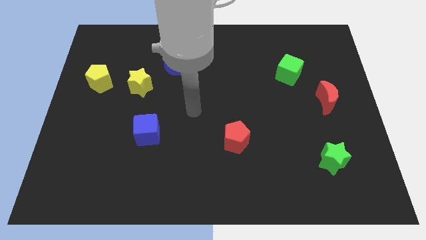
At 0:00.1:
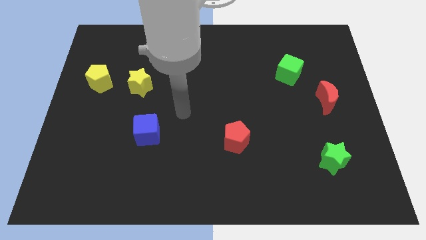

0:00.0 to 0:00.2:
move the yellow star away from the yellow pentagon

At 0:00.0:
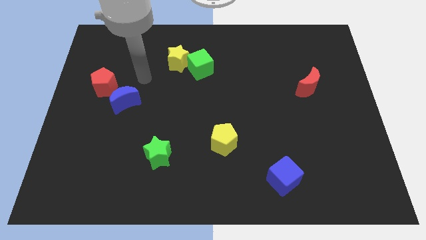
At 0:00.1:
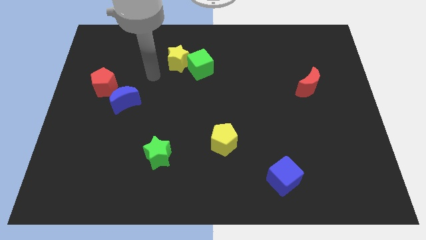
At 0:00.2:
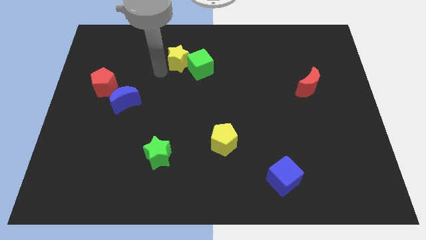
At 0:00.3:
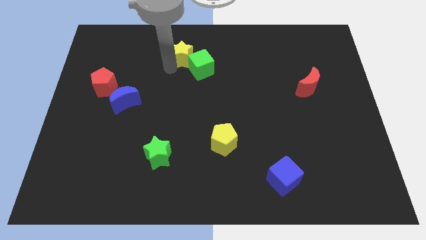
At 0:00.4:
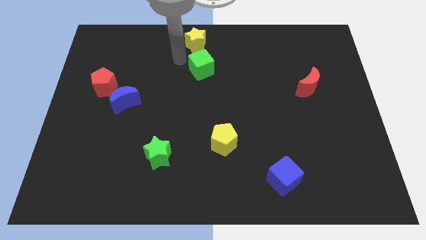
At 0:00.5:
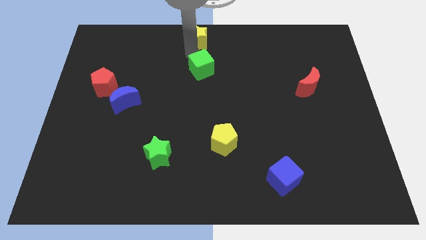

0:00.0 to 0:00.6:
move the green cube away from the yellow star

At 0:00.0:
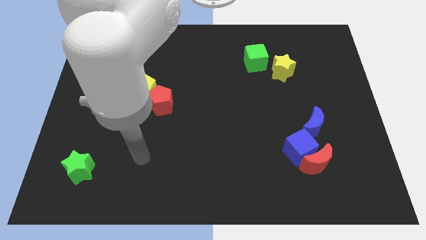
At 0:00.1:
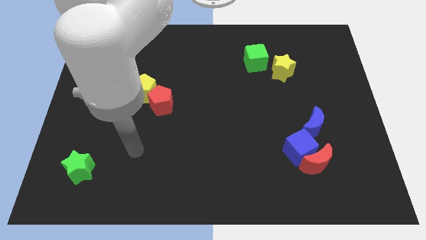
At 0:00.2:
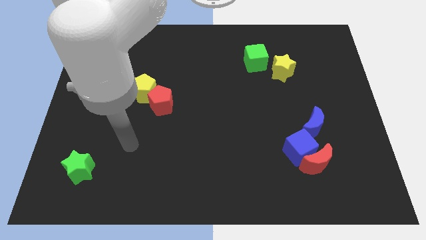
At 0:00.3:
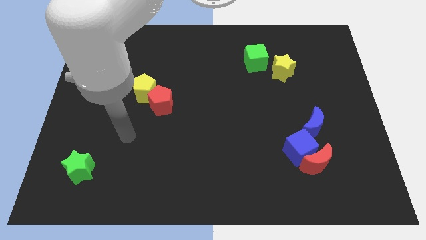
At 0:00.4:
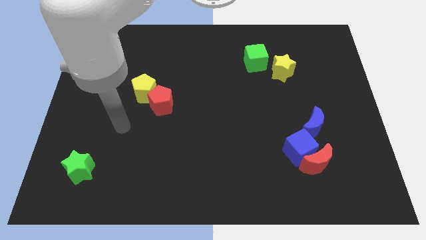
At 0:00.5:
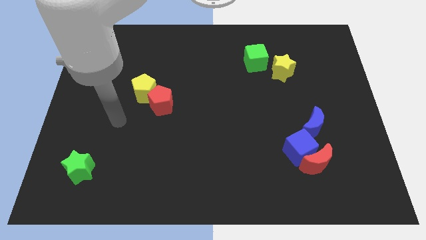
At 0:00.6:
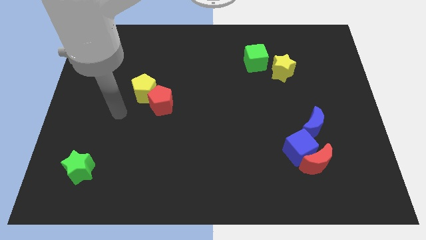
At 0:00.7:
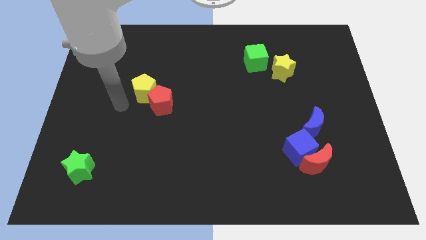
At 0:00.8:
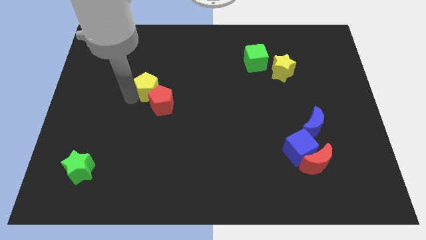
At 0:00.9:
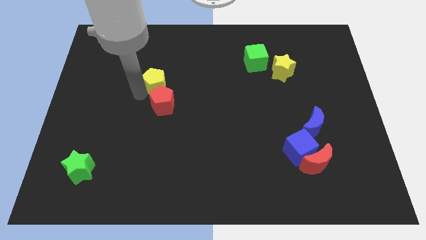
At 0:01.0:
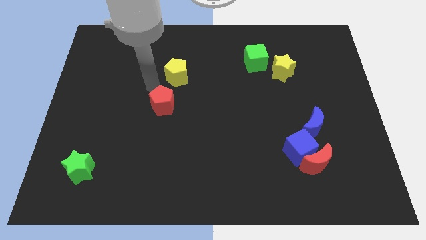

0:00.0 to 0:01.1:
pull the red pentagon apart from the yellow pentagon

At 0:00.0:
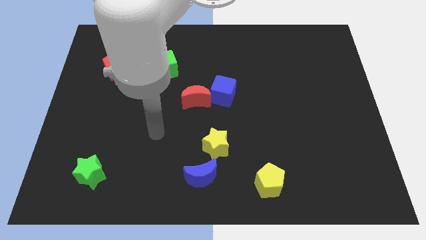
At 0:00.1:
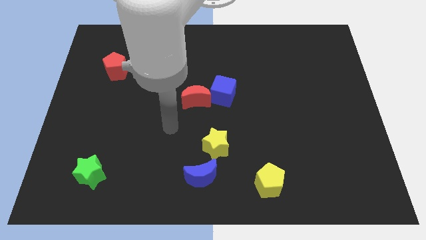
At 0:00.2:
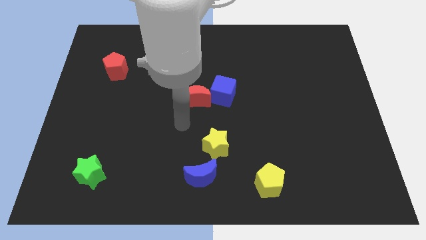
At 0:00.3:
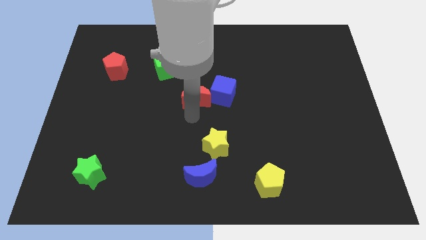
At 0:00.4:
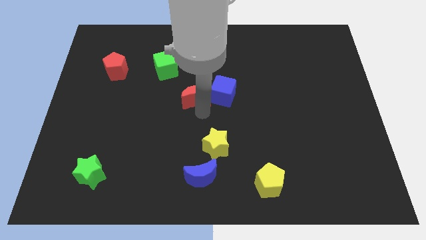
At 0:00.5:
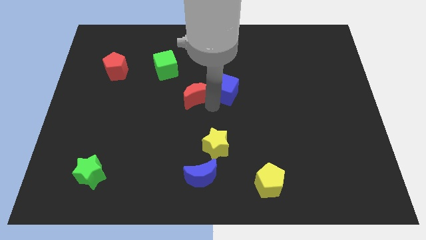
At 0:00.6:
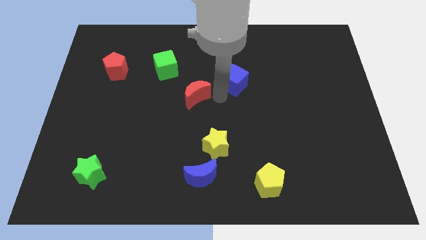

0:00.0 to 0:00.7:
pull the red moon apart from the blue cube

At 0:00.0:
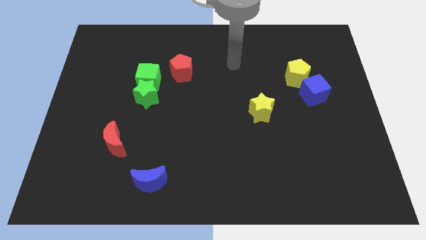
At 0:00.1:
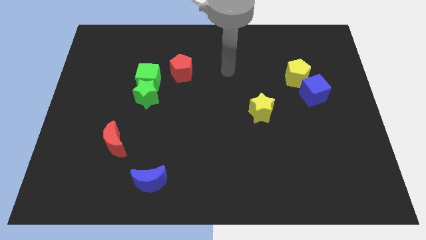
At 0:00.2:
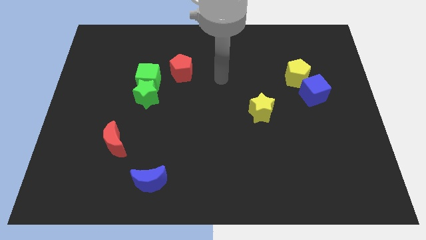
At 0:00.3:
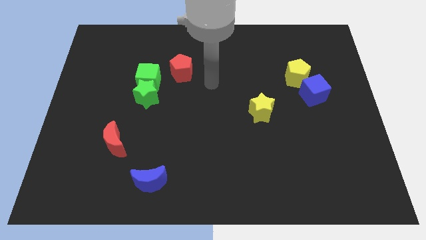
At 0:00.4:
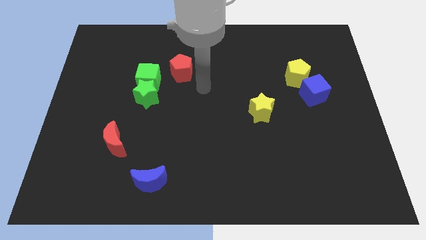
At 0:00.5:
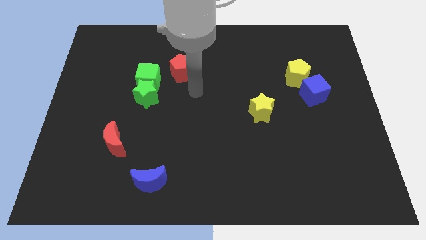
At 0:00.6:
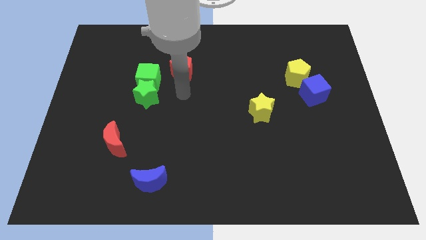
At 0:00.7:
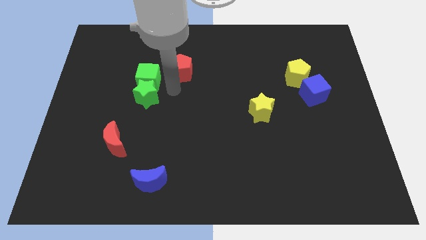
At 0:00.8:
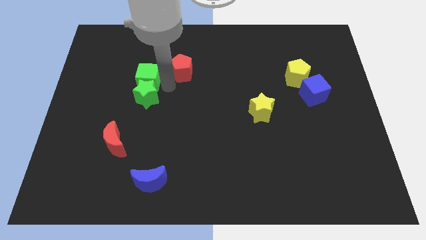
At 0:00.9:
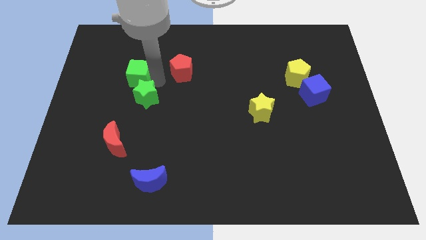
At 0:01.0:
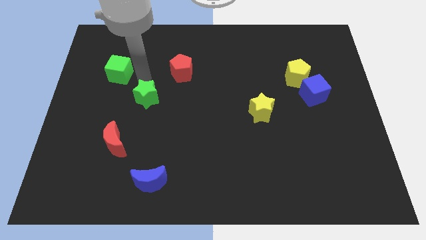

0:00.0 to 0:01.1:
pull the green star apart from the green cube

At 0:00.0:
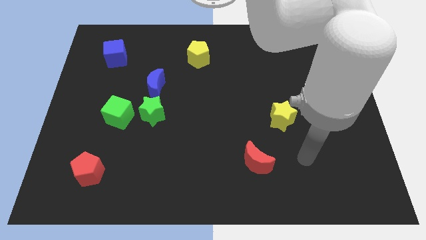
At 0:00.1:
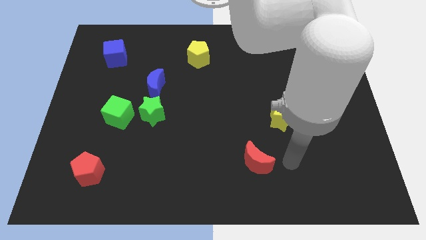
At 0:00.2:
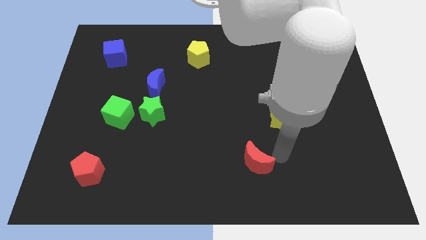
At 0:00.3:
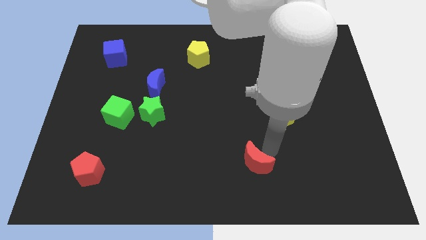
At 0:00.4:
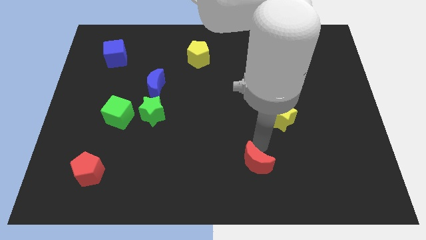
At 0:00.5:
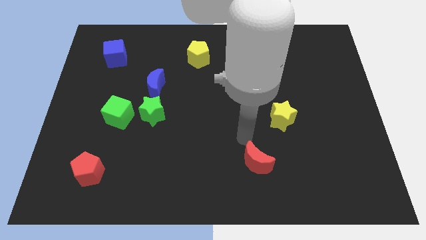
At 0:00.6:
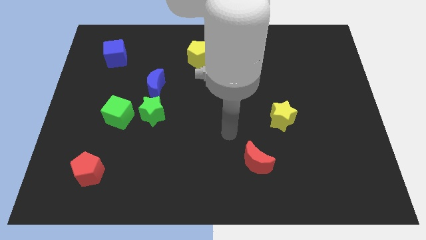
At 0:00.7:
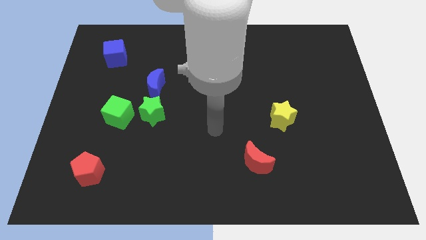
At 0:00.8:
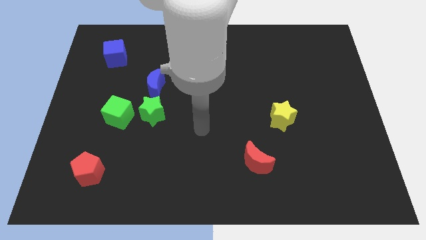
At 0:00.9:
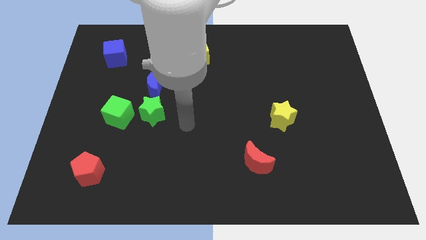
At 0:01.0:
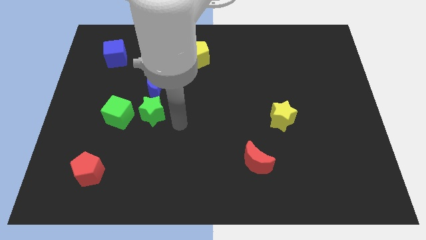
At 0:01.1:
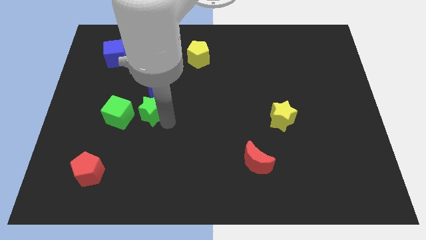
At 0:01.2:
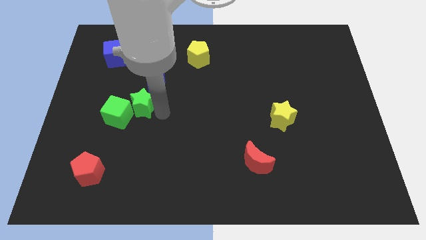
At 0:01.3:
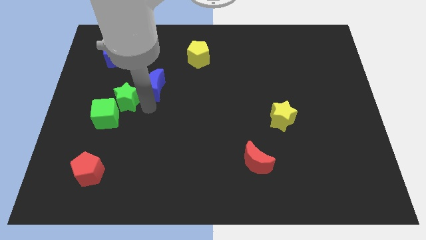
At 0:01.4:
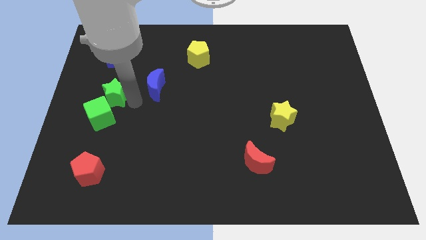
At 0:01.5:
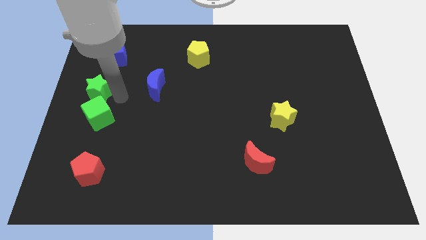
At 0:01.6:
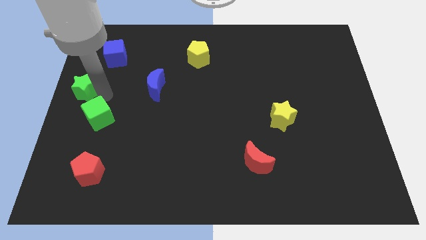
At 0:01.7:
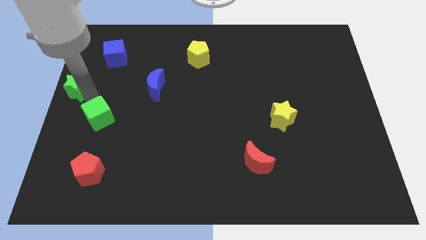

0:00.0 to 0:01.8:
move the green cube away from the green star

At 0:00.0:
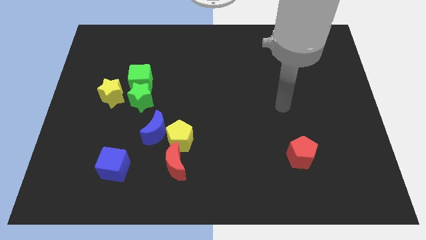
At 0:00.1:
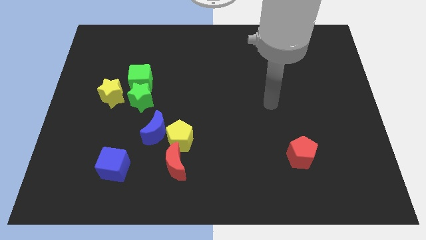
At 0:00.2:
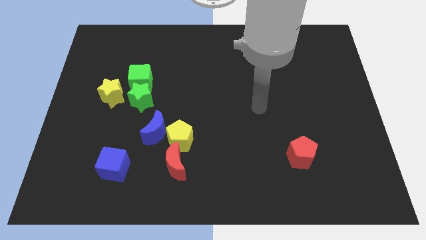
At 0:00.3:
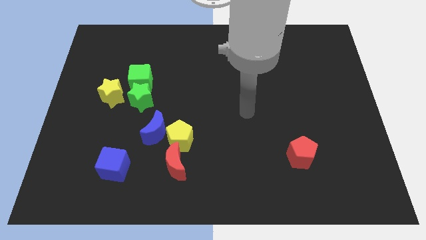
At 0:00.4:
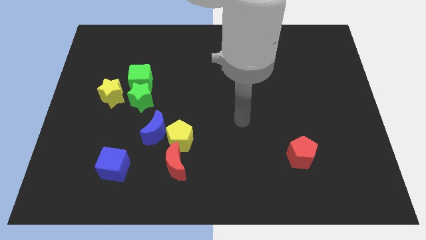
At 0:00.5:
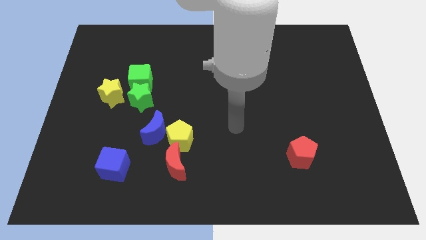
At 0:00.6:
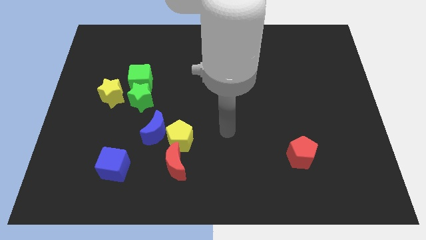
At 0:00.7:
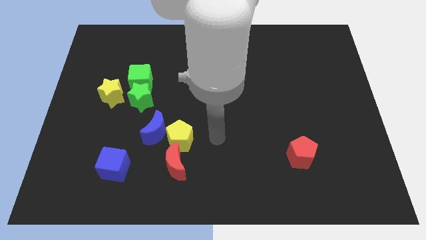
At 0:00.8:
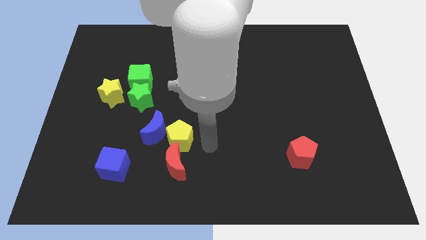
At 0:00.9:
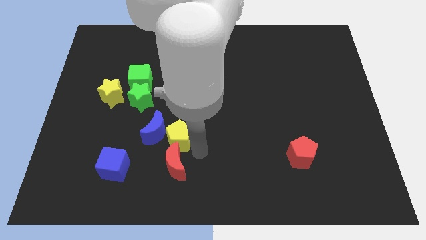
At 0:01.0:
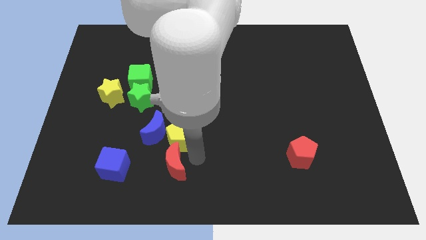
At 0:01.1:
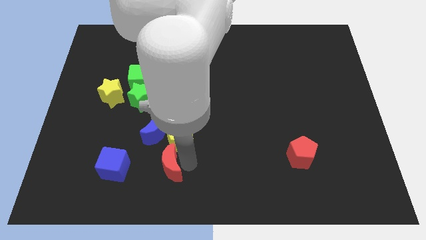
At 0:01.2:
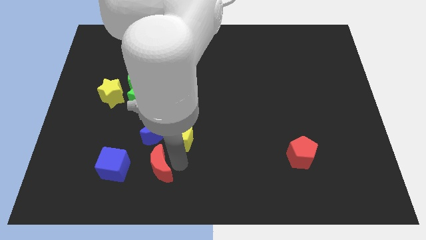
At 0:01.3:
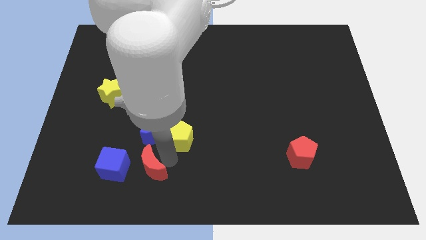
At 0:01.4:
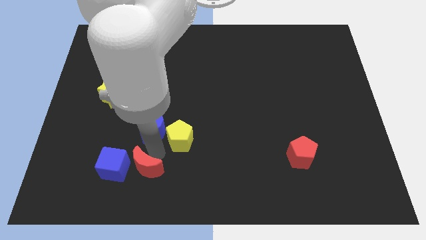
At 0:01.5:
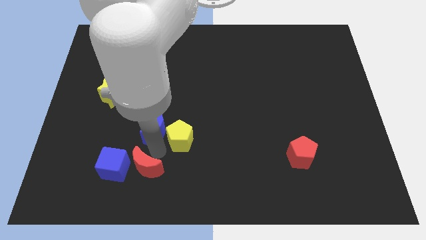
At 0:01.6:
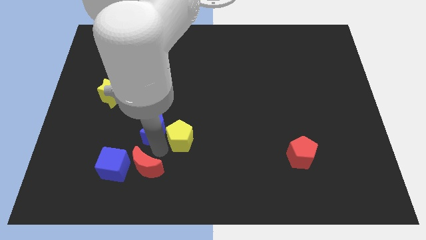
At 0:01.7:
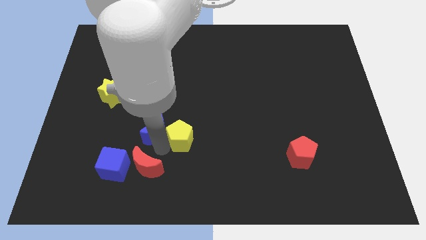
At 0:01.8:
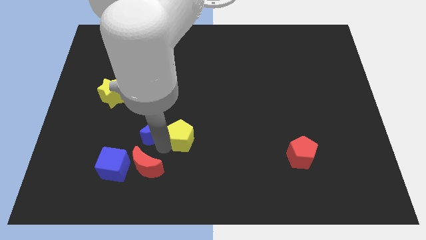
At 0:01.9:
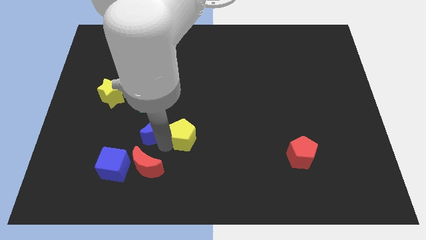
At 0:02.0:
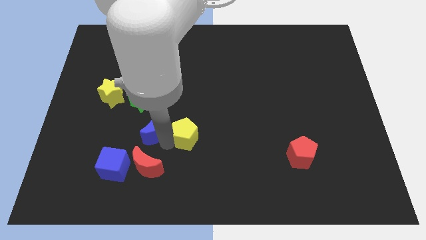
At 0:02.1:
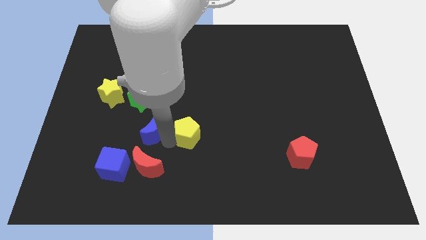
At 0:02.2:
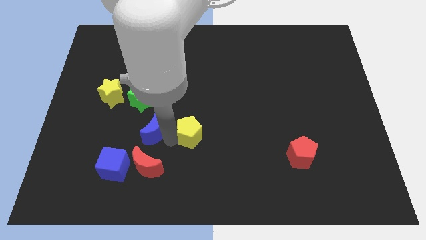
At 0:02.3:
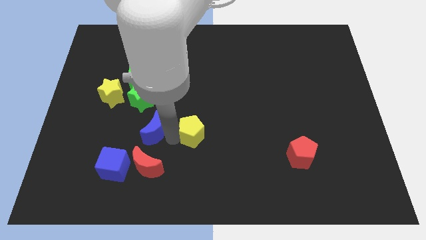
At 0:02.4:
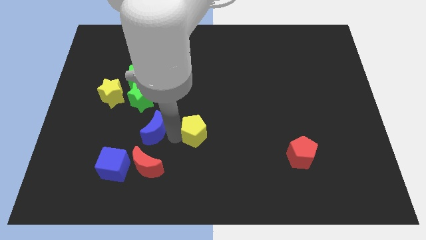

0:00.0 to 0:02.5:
separate the yellow pentagon from the blue moon and red moon

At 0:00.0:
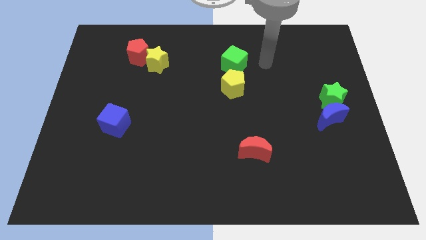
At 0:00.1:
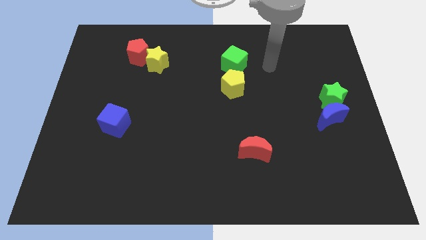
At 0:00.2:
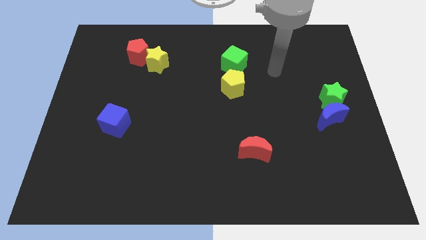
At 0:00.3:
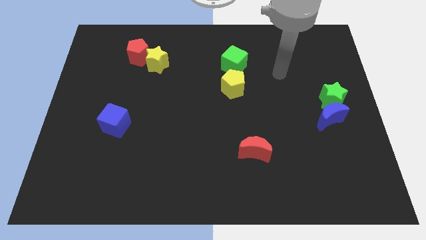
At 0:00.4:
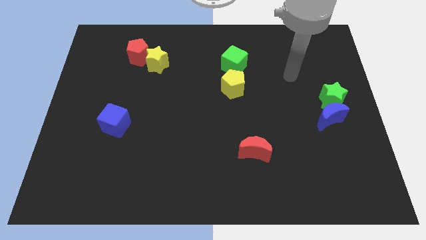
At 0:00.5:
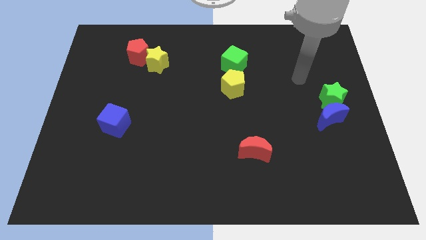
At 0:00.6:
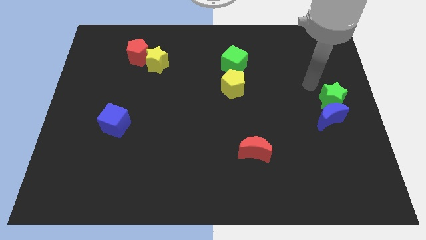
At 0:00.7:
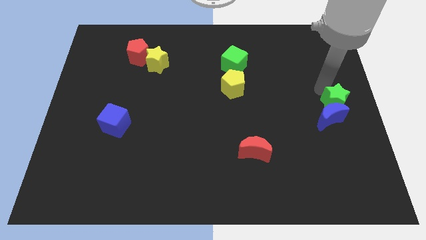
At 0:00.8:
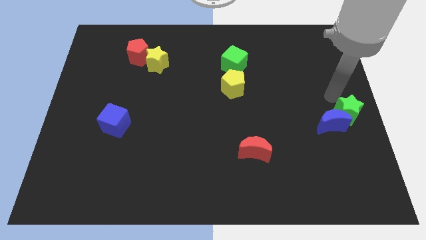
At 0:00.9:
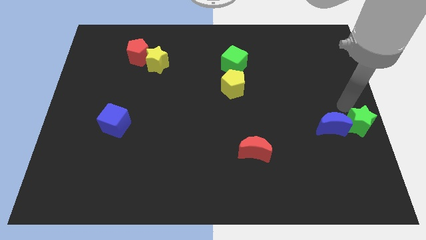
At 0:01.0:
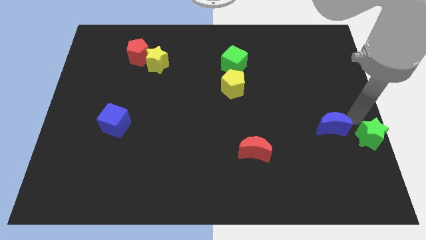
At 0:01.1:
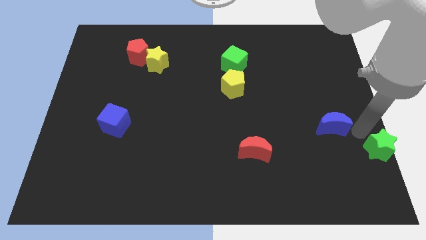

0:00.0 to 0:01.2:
separate the blue moon from the green star
